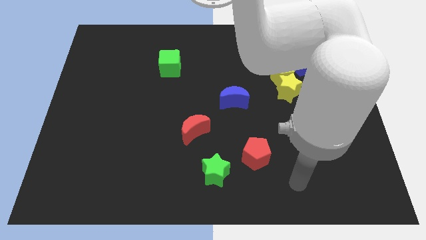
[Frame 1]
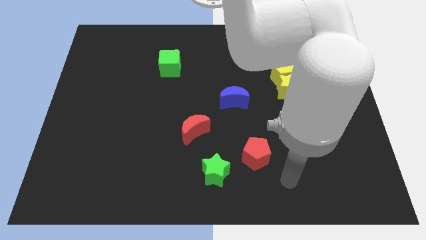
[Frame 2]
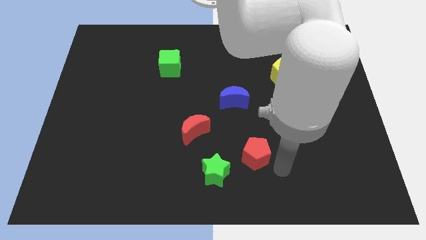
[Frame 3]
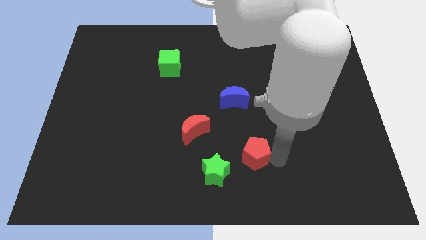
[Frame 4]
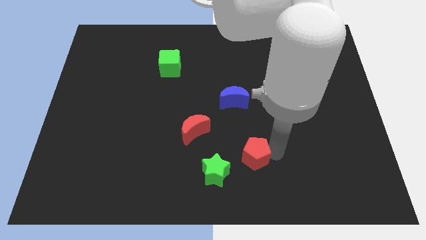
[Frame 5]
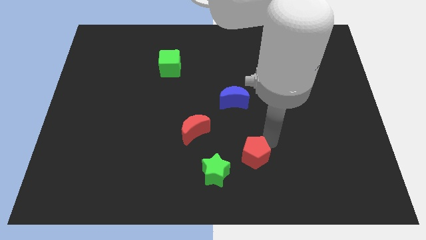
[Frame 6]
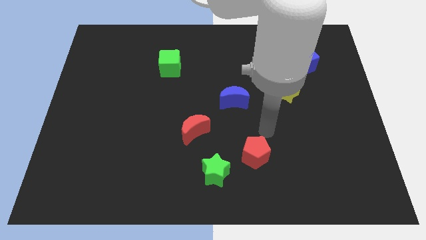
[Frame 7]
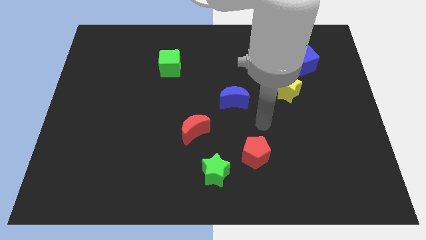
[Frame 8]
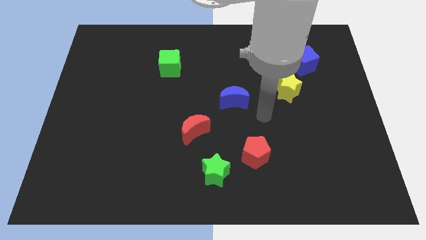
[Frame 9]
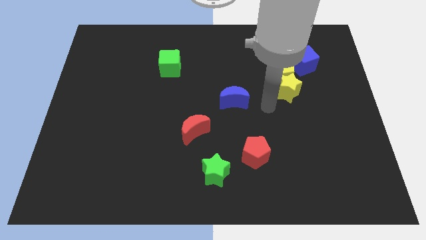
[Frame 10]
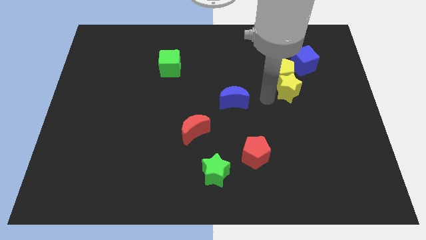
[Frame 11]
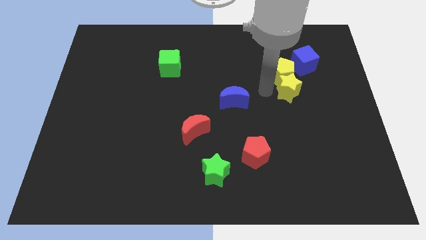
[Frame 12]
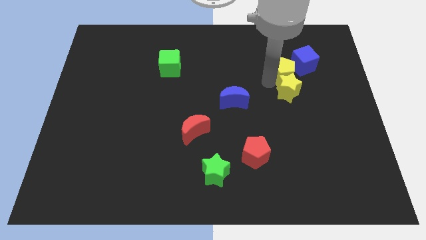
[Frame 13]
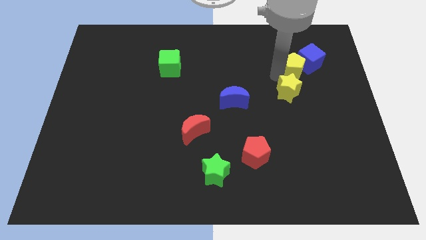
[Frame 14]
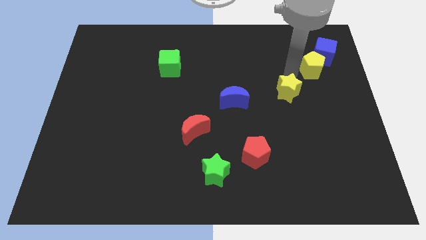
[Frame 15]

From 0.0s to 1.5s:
pull the yellow star apart from the yellow pentagon

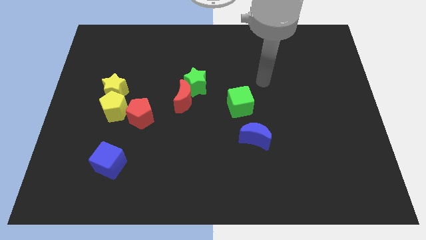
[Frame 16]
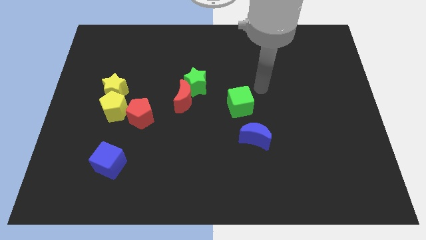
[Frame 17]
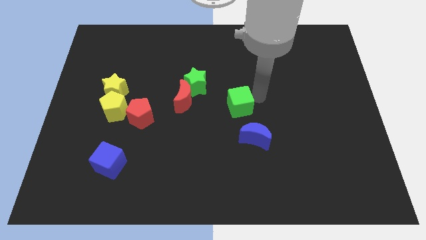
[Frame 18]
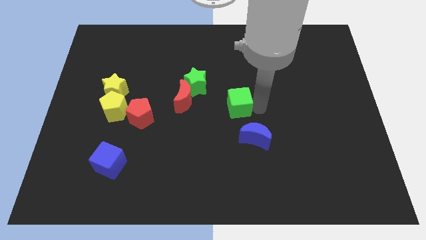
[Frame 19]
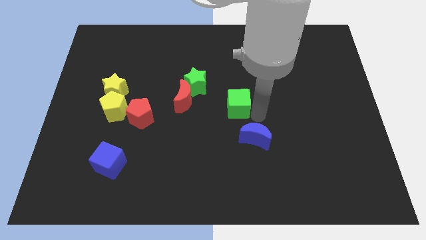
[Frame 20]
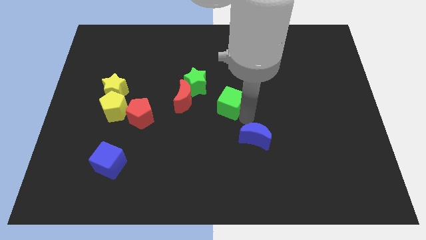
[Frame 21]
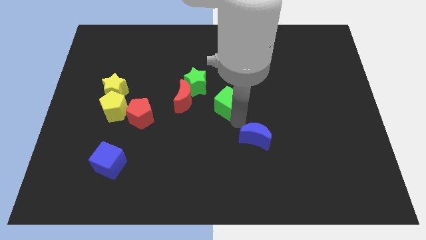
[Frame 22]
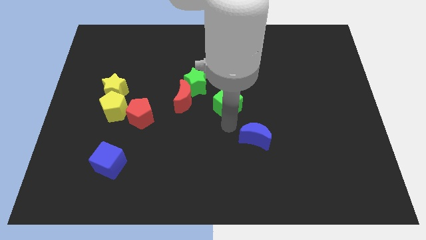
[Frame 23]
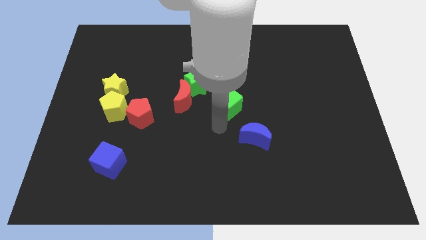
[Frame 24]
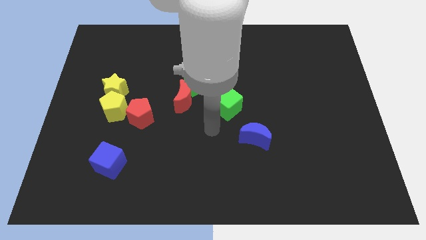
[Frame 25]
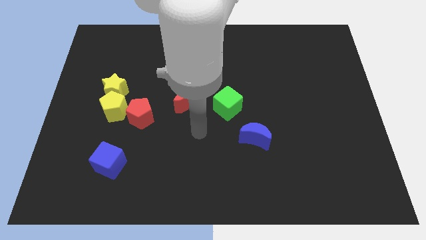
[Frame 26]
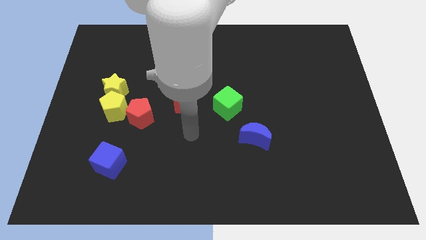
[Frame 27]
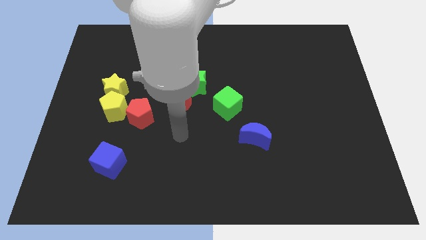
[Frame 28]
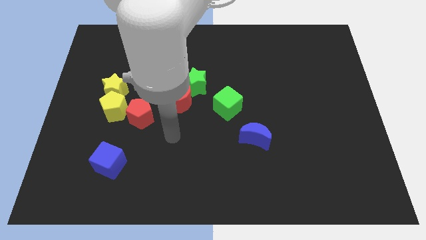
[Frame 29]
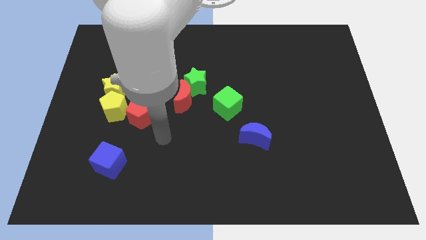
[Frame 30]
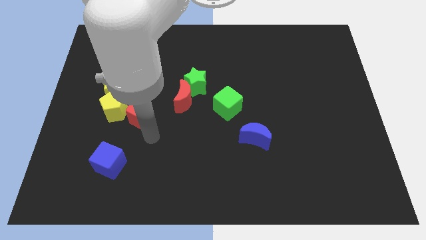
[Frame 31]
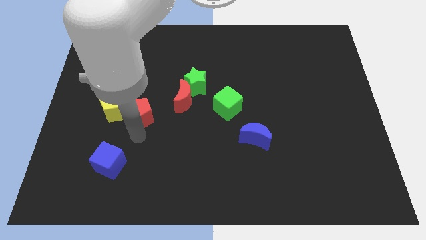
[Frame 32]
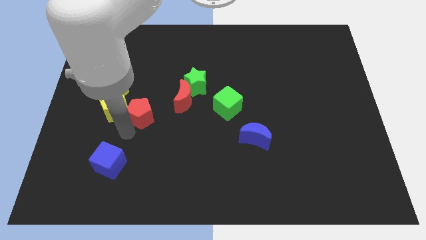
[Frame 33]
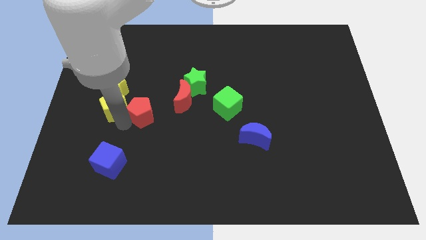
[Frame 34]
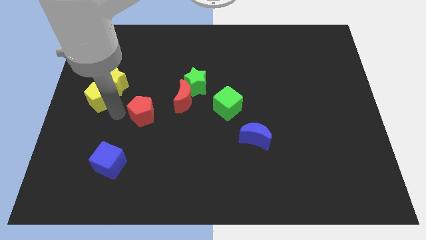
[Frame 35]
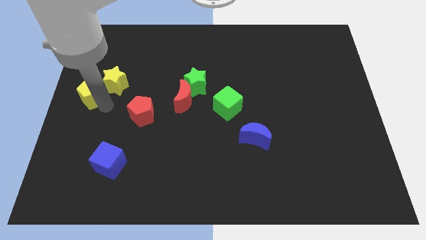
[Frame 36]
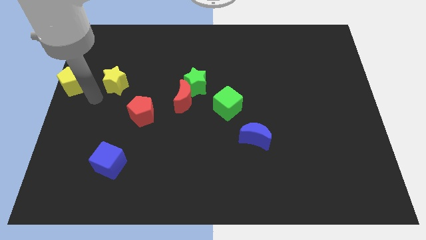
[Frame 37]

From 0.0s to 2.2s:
separate the yellow star from the yellow pentagon

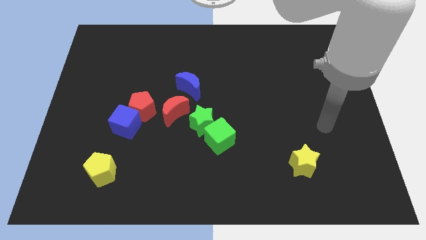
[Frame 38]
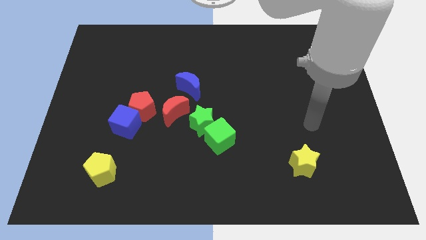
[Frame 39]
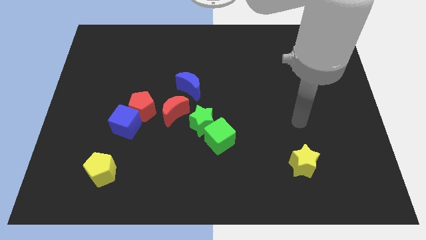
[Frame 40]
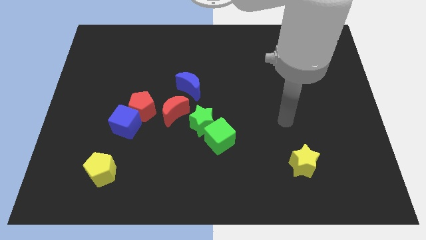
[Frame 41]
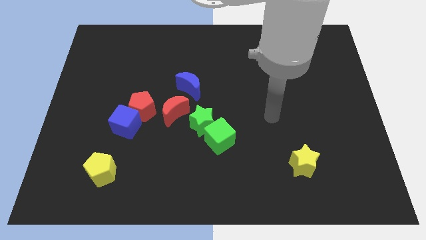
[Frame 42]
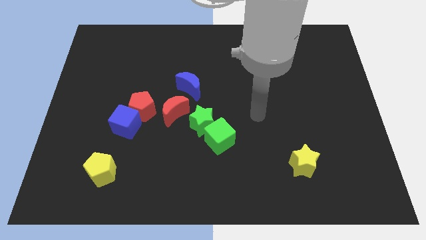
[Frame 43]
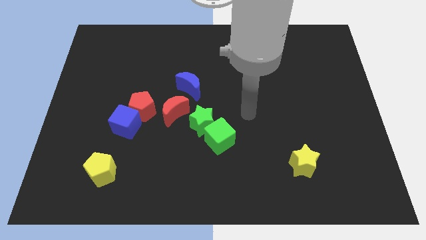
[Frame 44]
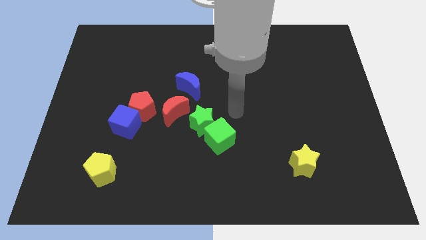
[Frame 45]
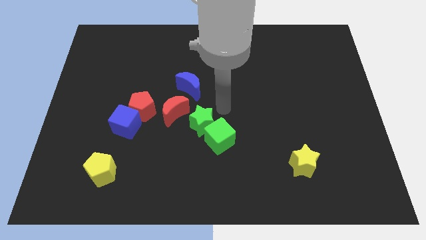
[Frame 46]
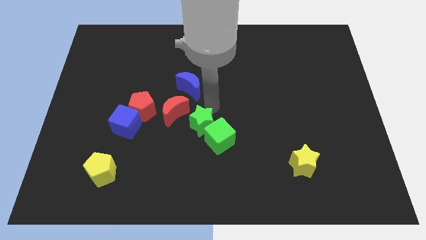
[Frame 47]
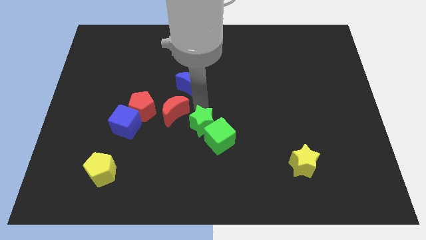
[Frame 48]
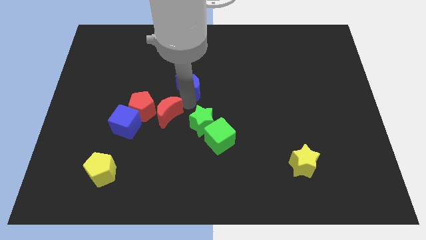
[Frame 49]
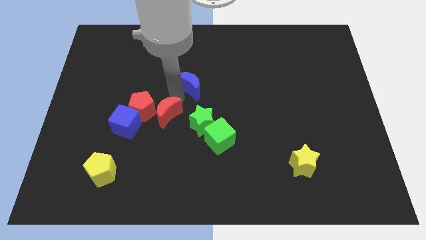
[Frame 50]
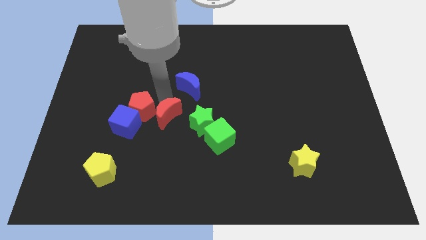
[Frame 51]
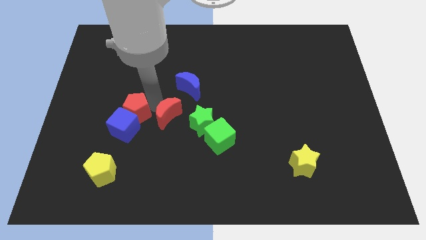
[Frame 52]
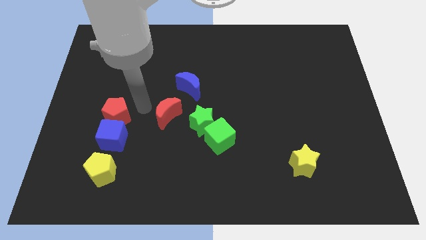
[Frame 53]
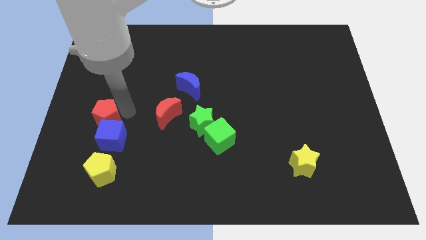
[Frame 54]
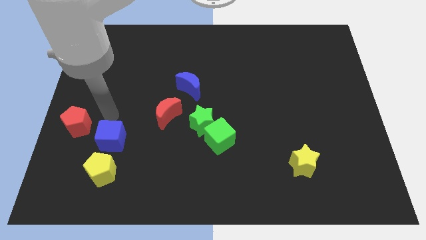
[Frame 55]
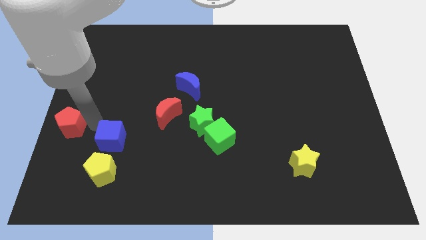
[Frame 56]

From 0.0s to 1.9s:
pull the blue cube apart from the red pentagon

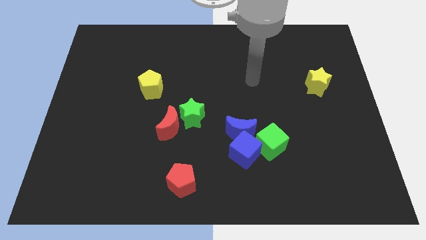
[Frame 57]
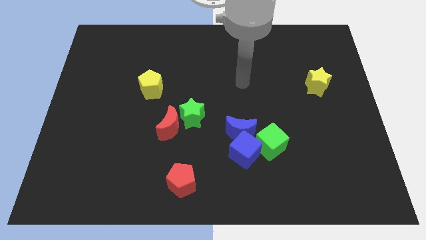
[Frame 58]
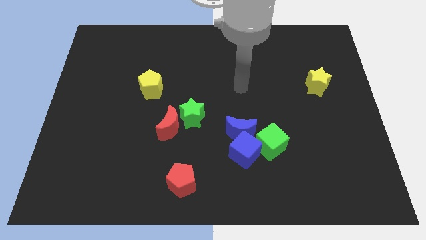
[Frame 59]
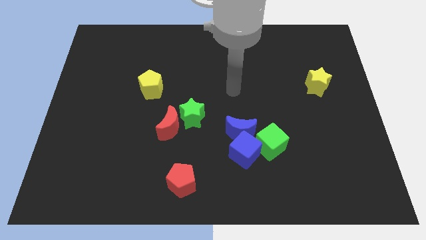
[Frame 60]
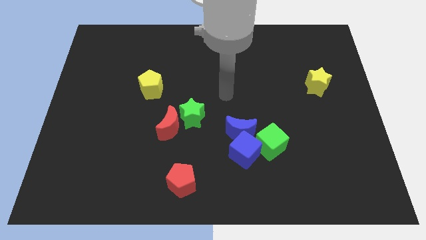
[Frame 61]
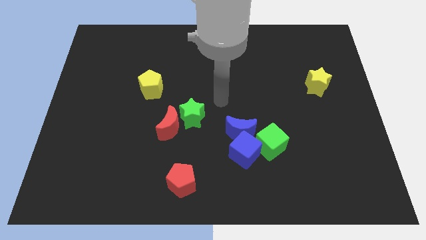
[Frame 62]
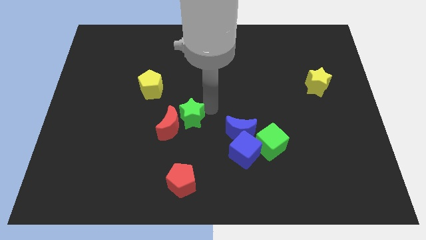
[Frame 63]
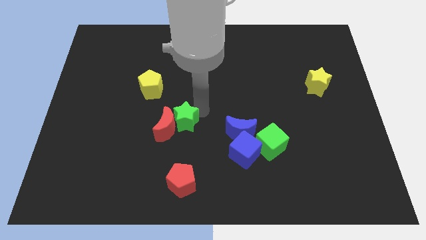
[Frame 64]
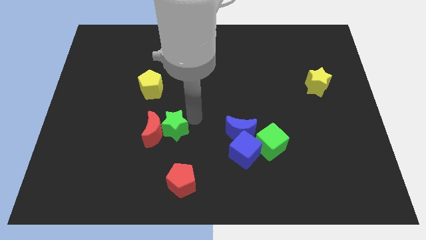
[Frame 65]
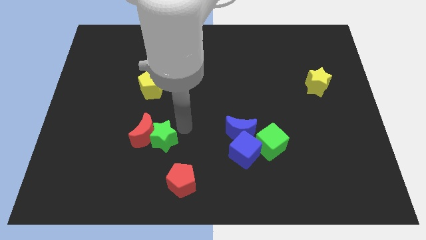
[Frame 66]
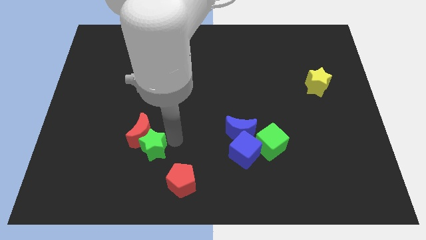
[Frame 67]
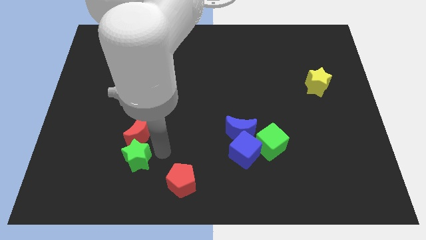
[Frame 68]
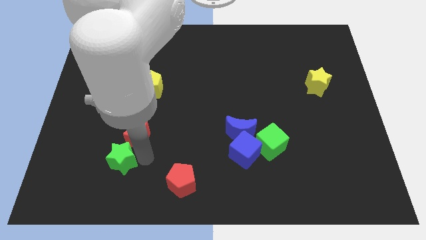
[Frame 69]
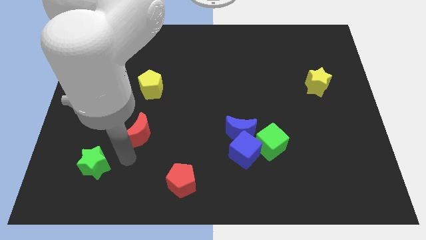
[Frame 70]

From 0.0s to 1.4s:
pull the red moon apart from the green star

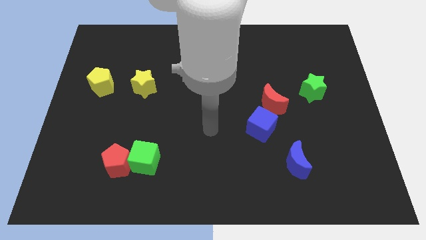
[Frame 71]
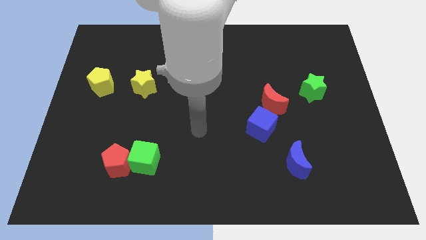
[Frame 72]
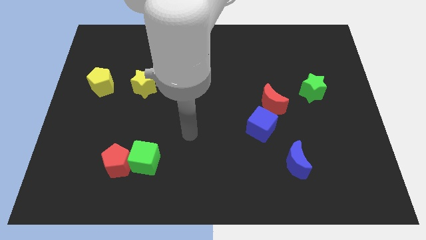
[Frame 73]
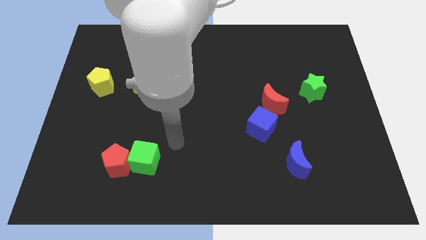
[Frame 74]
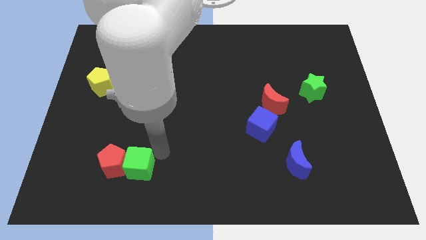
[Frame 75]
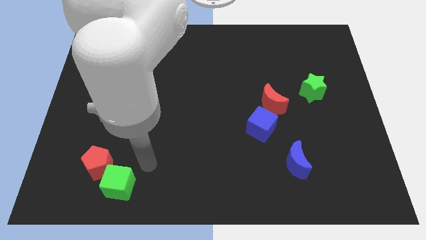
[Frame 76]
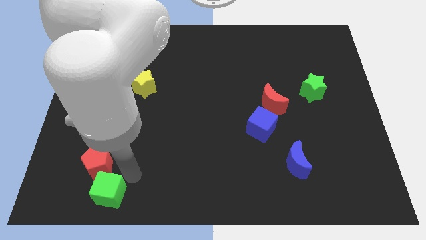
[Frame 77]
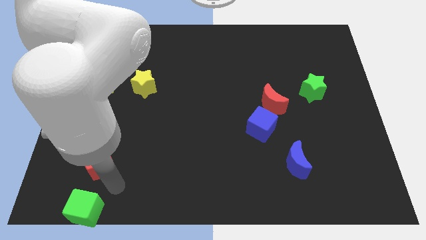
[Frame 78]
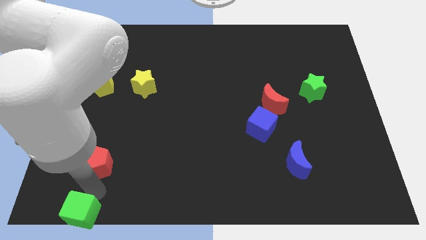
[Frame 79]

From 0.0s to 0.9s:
move the red pentagon away from the green cube

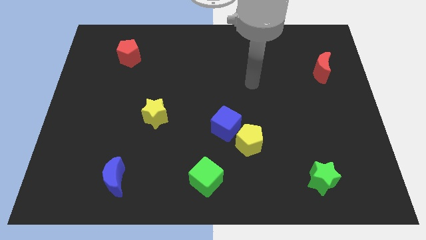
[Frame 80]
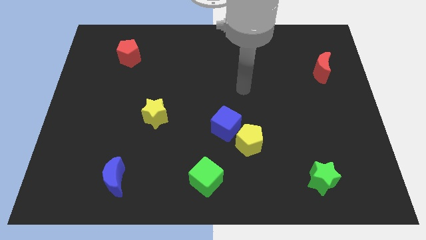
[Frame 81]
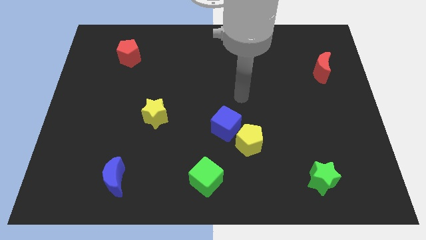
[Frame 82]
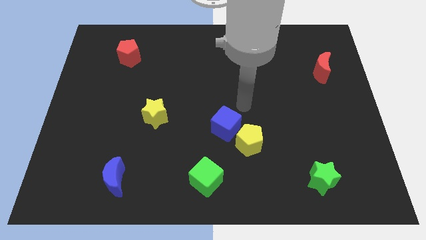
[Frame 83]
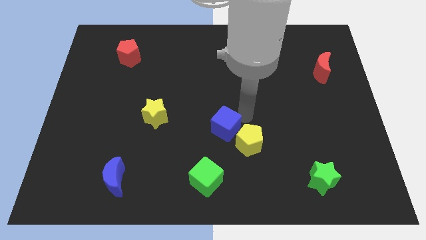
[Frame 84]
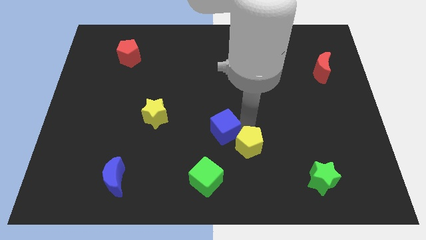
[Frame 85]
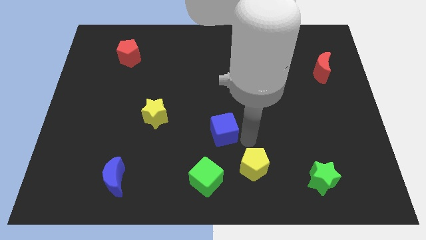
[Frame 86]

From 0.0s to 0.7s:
pull the blue cube apart from the yellow pentagon

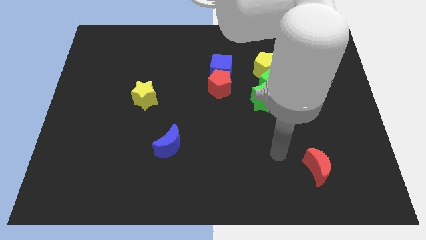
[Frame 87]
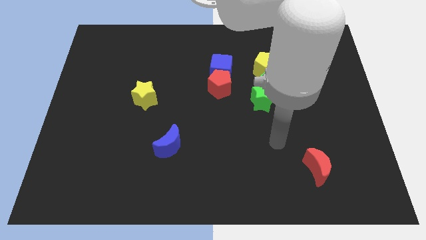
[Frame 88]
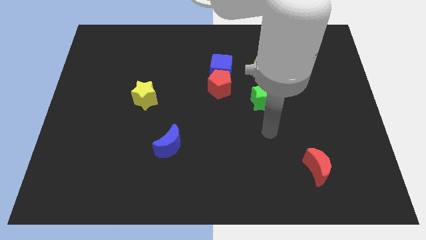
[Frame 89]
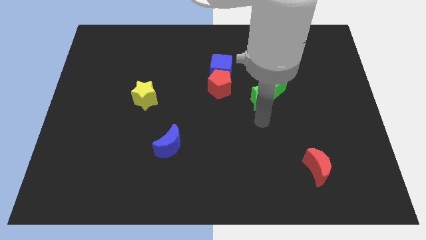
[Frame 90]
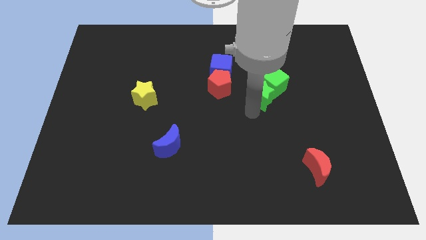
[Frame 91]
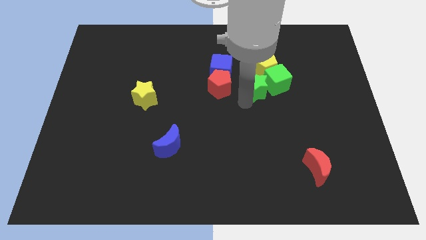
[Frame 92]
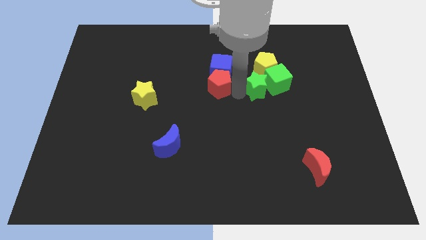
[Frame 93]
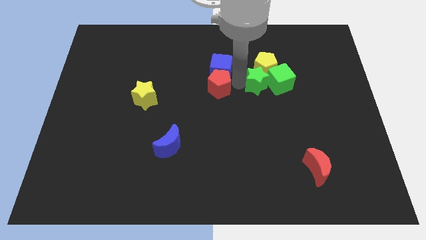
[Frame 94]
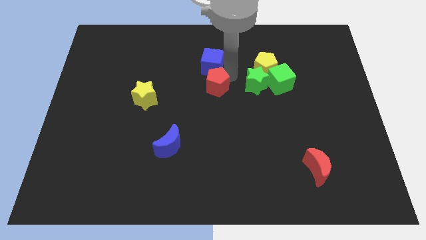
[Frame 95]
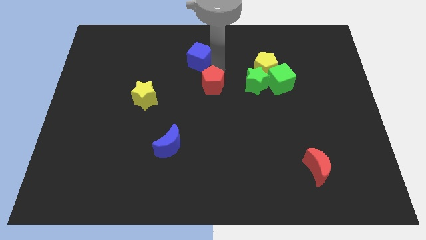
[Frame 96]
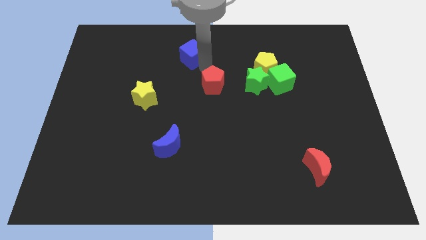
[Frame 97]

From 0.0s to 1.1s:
move the red pentagon away from the blue cube
